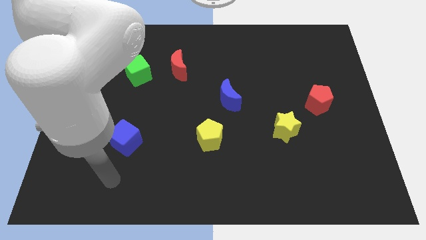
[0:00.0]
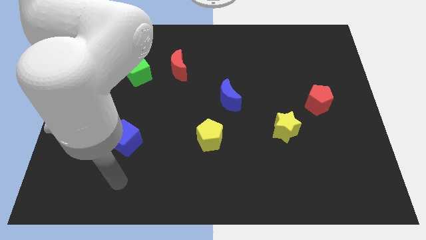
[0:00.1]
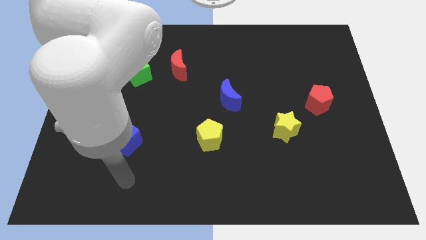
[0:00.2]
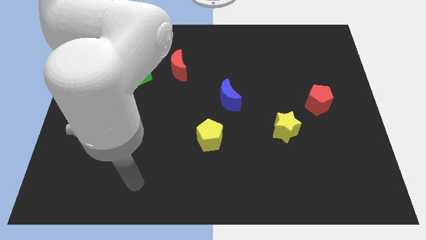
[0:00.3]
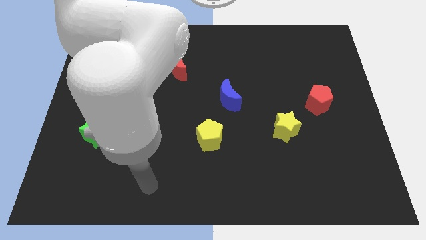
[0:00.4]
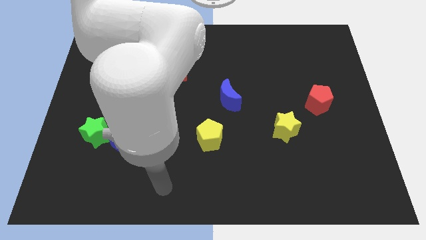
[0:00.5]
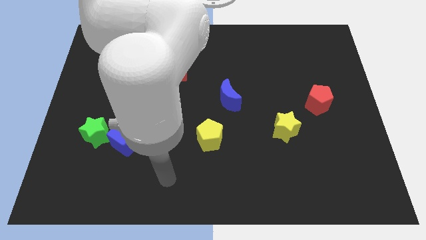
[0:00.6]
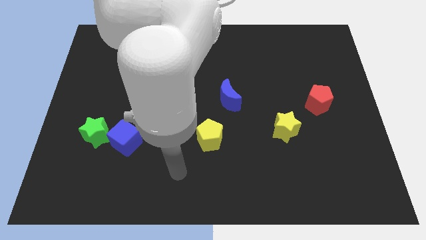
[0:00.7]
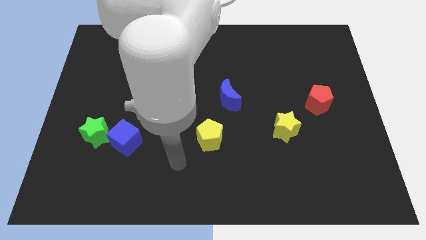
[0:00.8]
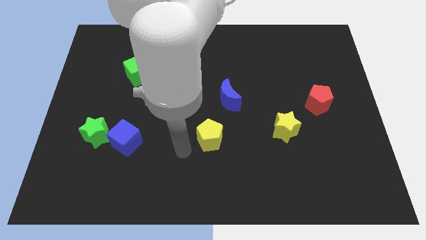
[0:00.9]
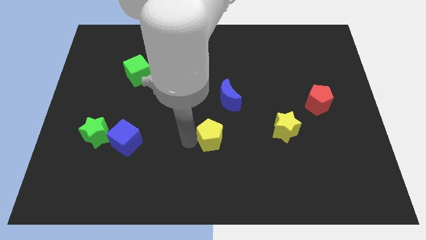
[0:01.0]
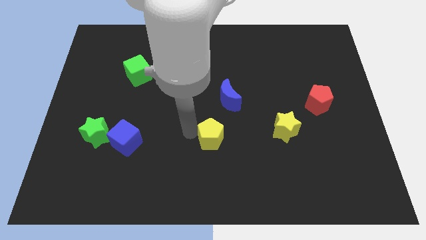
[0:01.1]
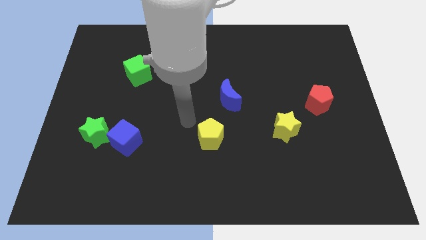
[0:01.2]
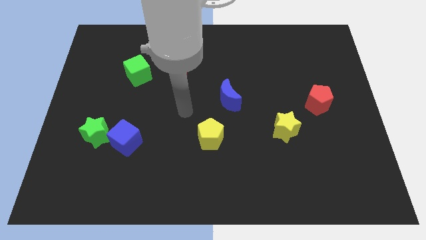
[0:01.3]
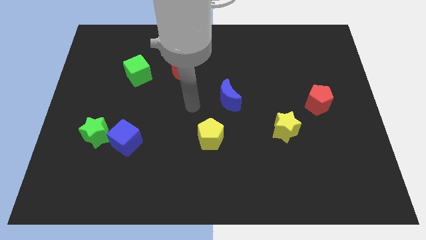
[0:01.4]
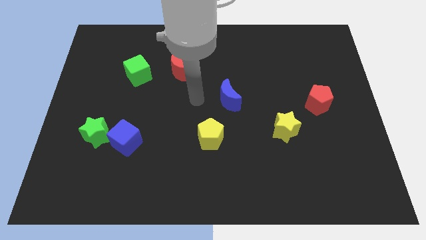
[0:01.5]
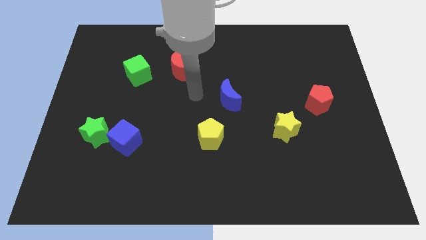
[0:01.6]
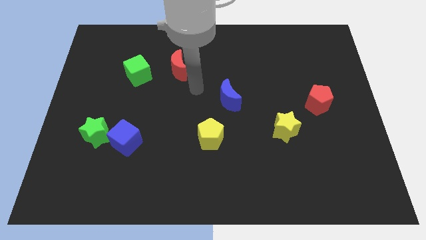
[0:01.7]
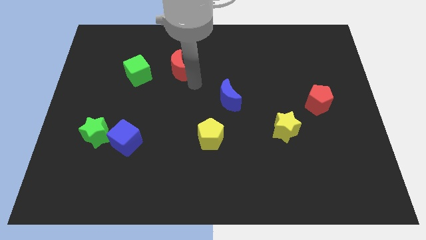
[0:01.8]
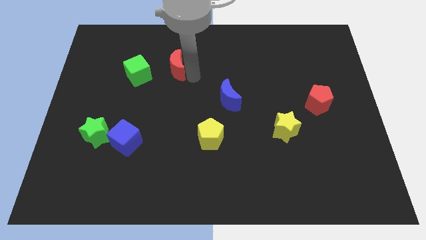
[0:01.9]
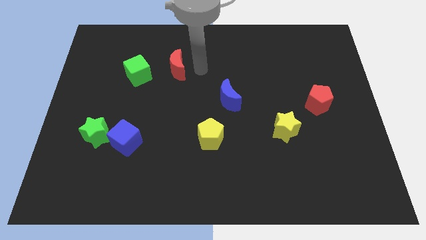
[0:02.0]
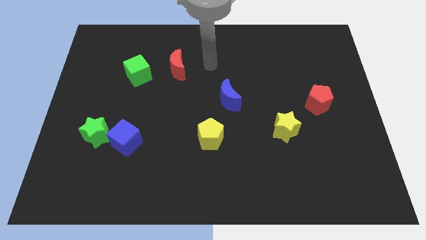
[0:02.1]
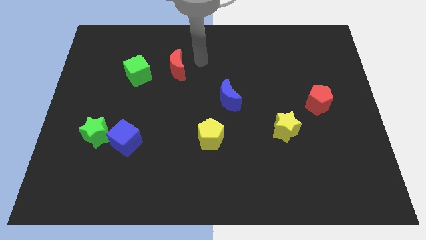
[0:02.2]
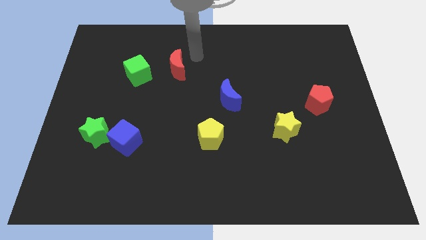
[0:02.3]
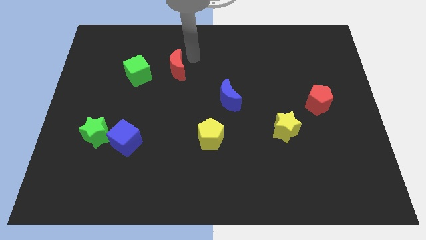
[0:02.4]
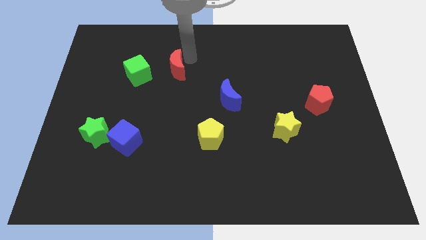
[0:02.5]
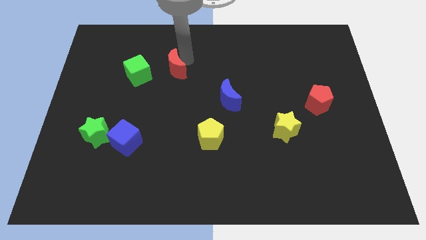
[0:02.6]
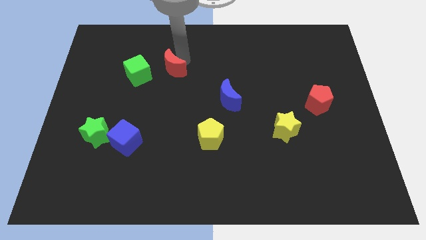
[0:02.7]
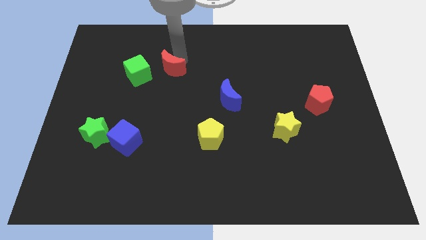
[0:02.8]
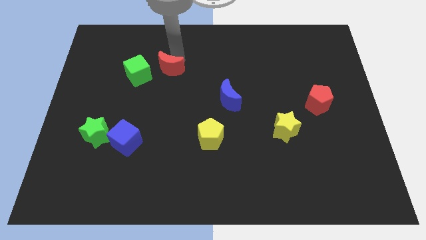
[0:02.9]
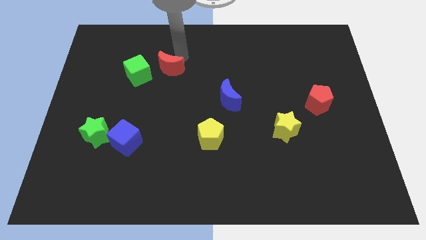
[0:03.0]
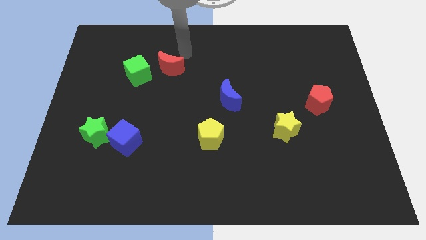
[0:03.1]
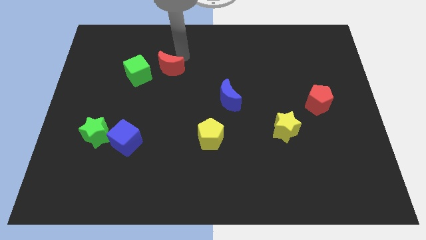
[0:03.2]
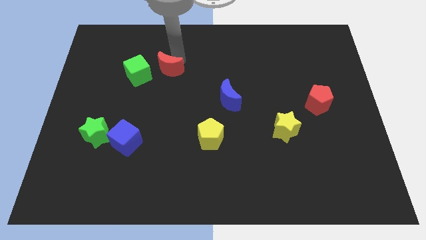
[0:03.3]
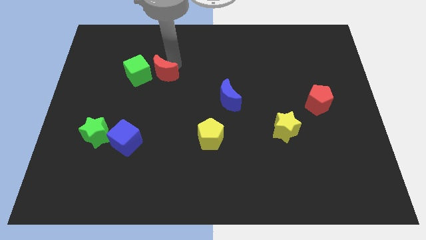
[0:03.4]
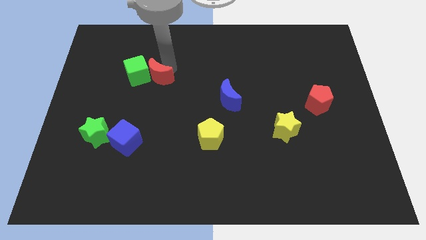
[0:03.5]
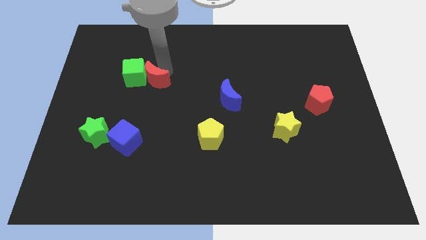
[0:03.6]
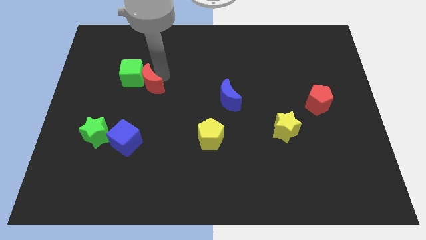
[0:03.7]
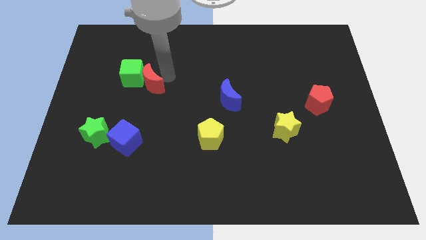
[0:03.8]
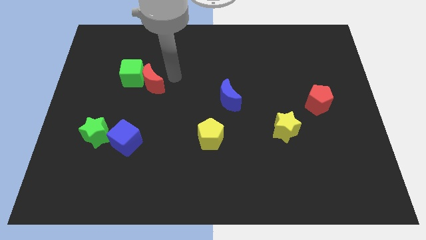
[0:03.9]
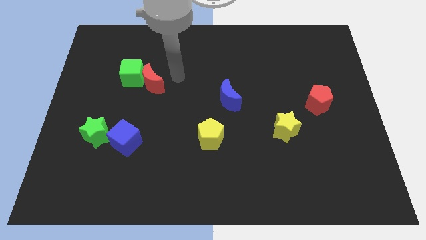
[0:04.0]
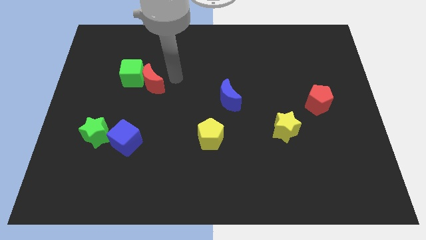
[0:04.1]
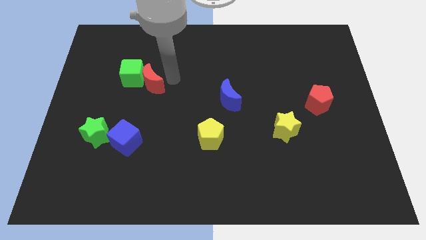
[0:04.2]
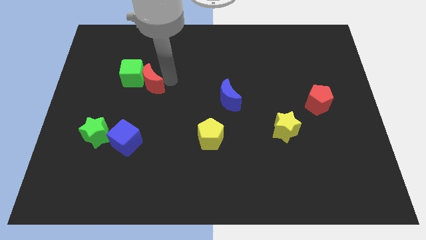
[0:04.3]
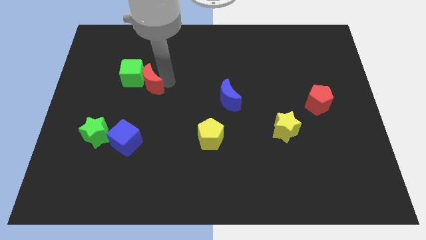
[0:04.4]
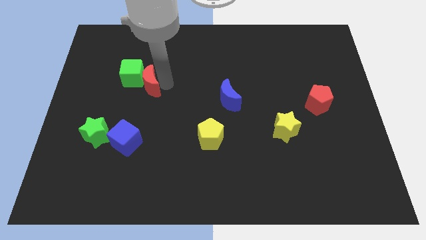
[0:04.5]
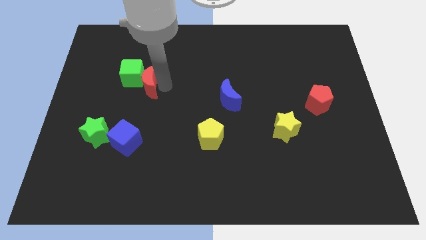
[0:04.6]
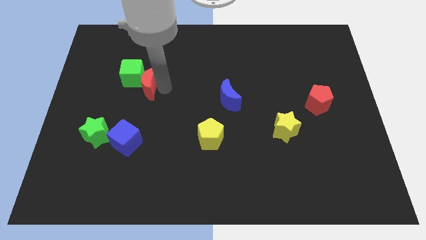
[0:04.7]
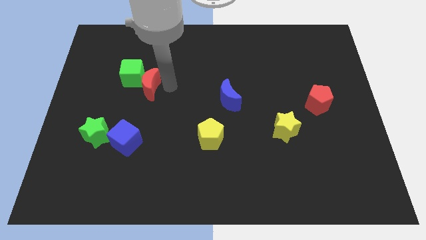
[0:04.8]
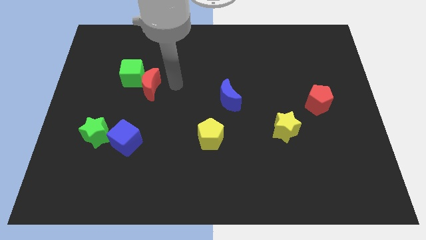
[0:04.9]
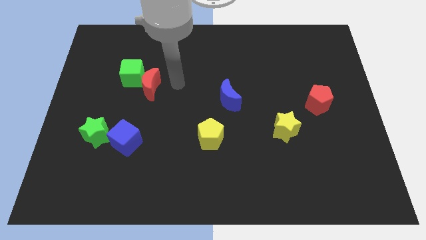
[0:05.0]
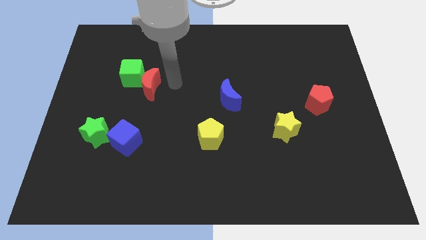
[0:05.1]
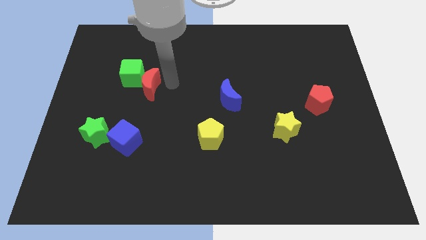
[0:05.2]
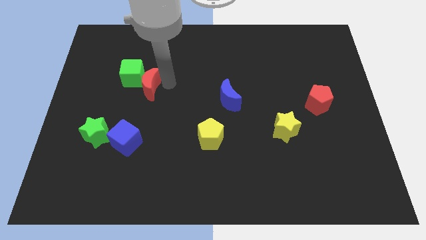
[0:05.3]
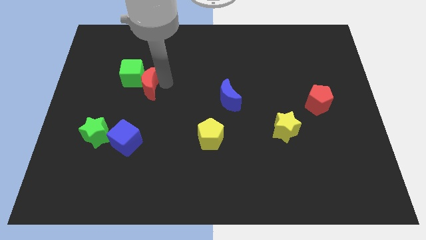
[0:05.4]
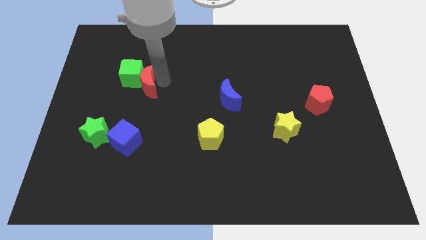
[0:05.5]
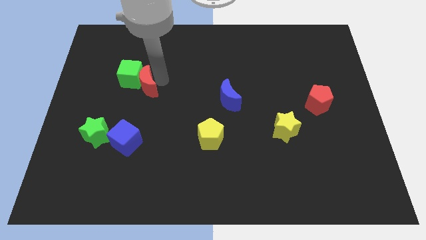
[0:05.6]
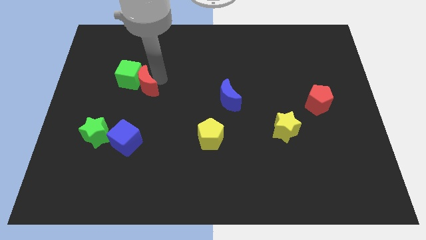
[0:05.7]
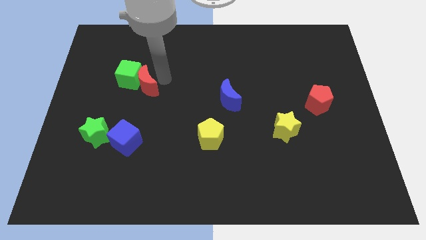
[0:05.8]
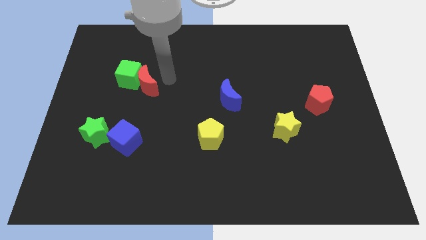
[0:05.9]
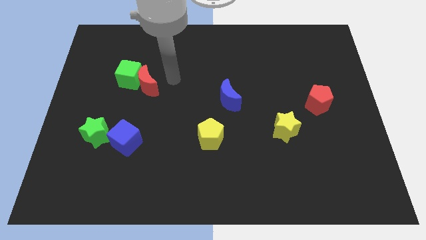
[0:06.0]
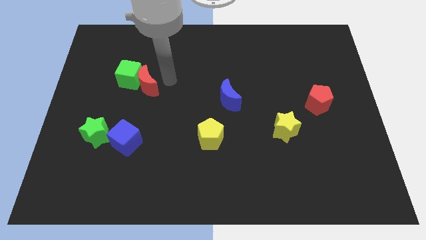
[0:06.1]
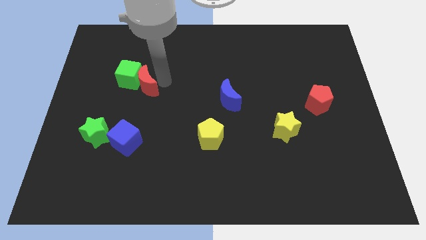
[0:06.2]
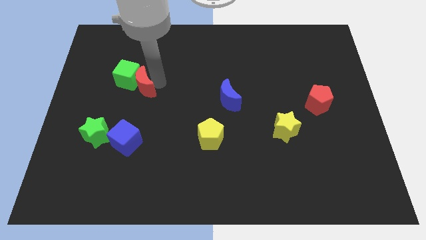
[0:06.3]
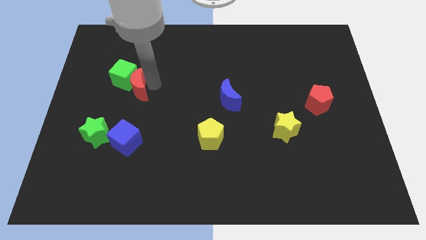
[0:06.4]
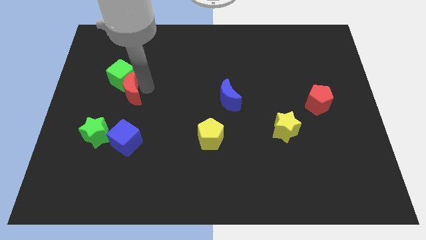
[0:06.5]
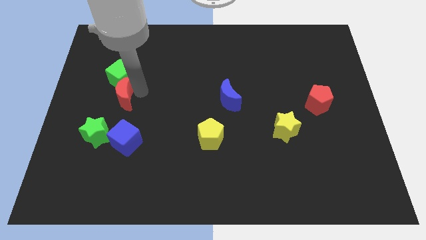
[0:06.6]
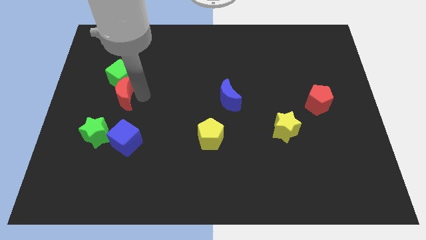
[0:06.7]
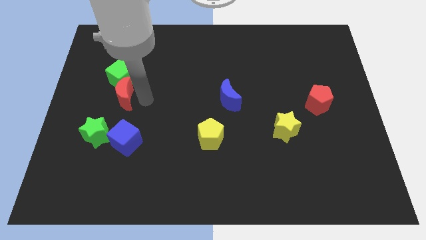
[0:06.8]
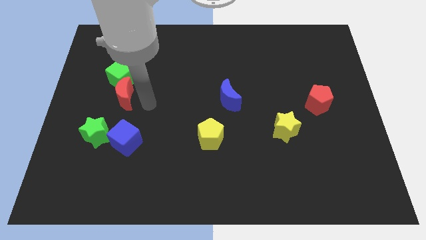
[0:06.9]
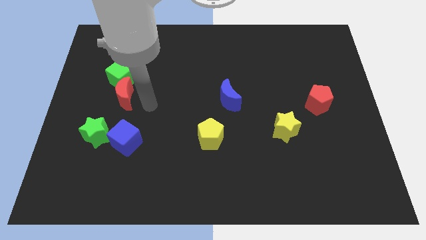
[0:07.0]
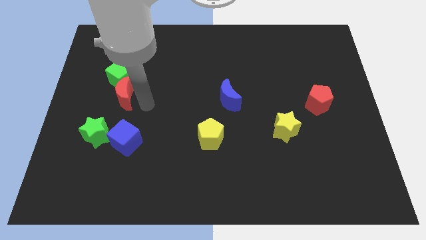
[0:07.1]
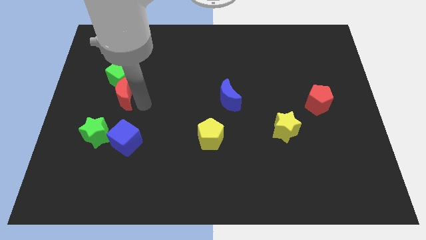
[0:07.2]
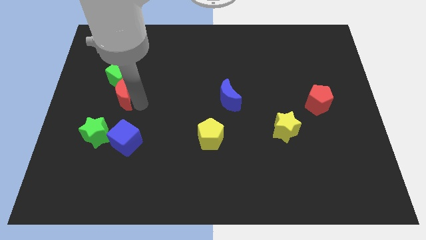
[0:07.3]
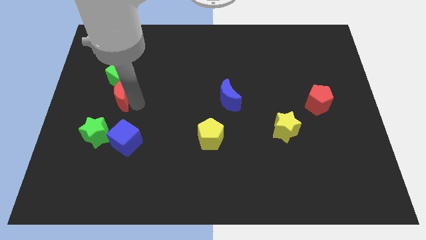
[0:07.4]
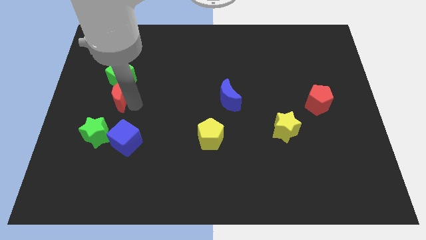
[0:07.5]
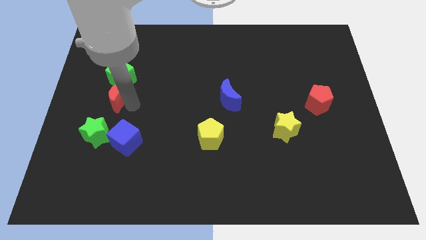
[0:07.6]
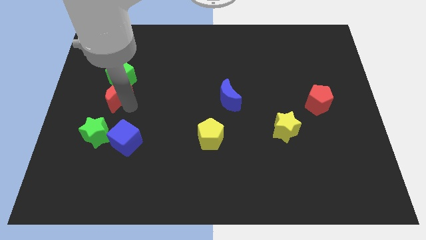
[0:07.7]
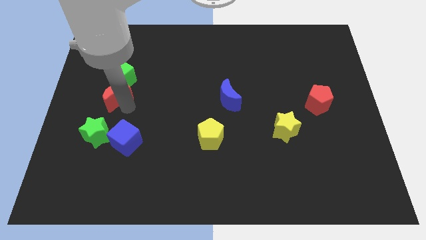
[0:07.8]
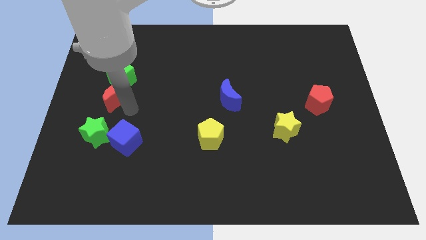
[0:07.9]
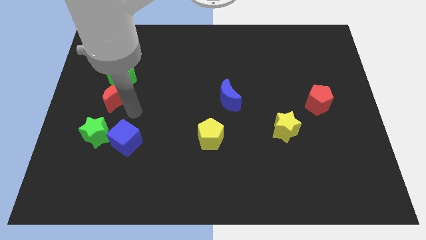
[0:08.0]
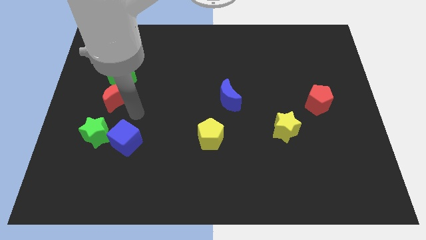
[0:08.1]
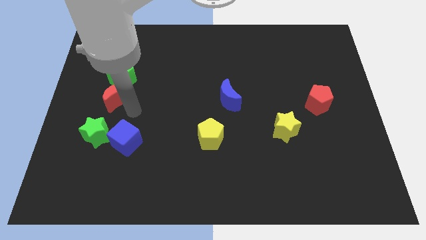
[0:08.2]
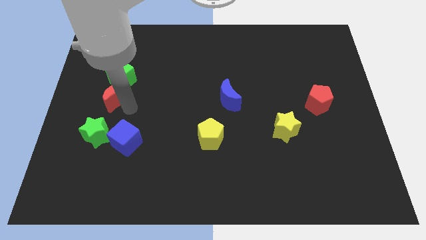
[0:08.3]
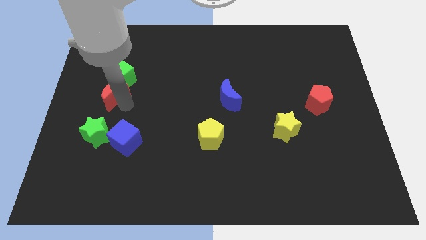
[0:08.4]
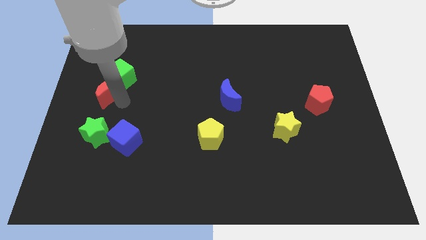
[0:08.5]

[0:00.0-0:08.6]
slide the red moon to the left side of the board
